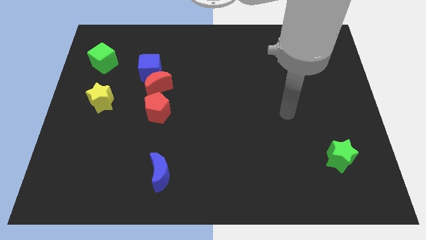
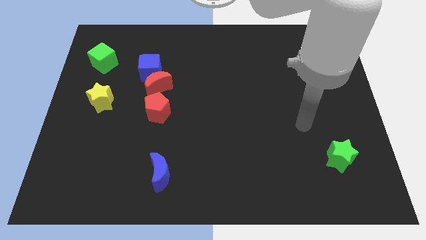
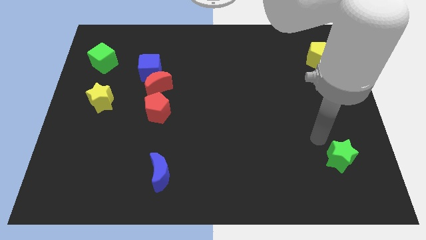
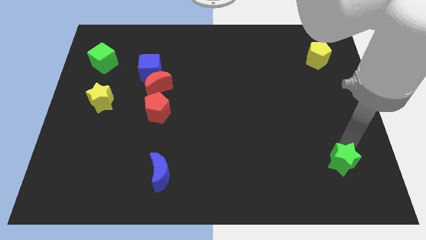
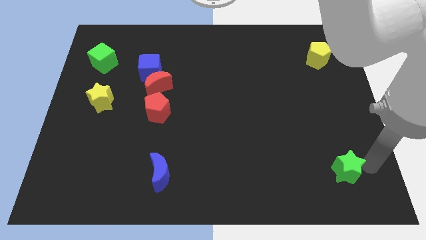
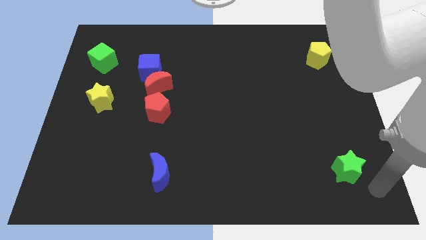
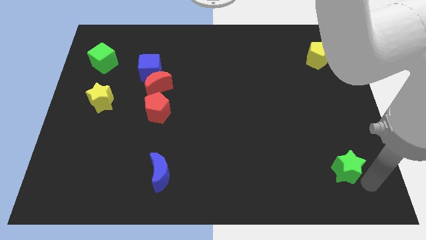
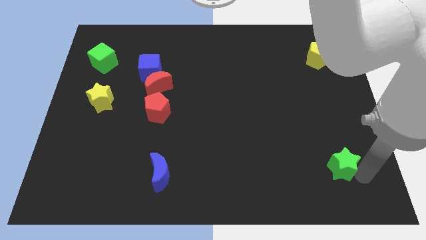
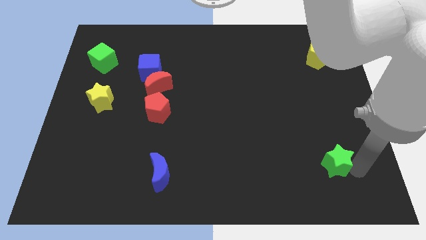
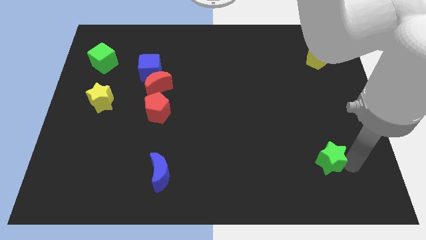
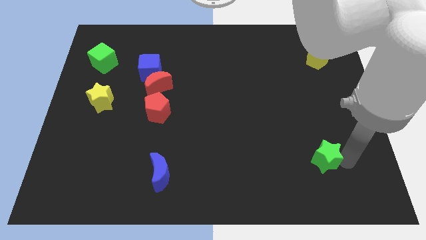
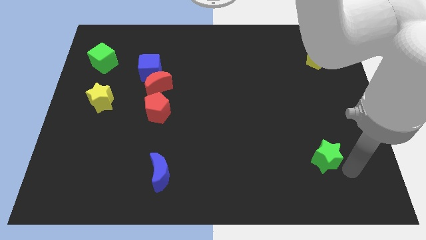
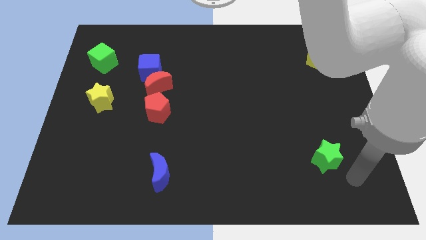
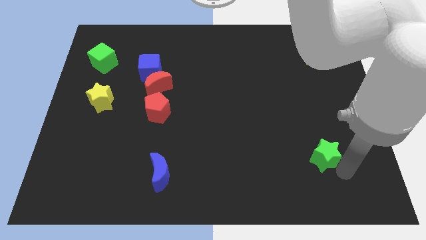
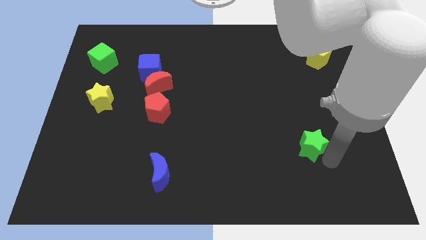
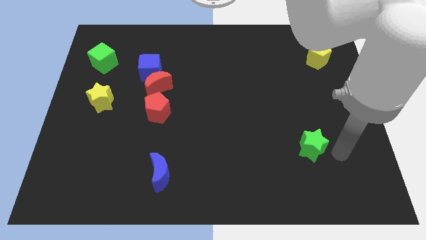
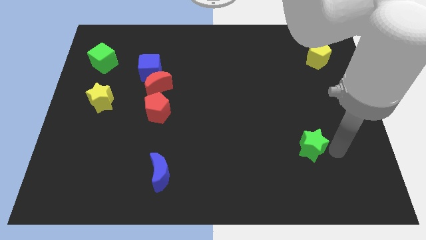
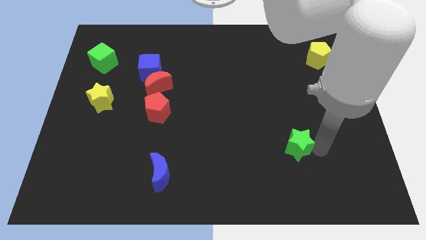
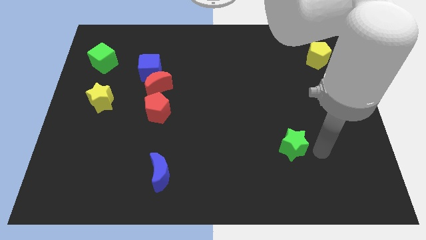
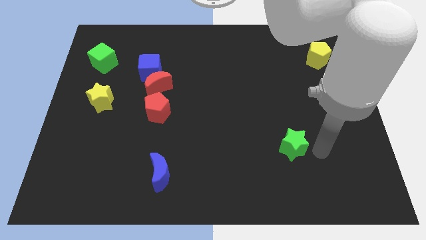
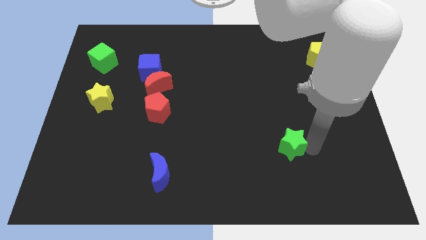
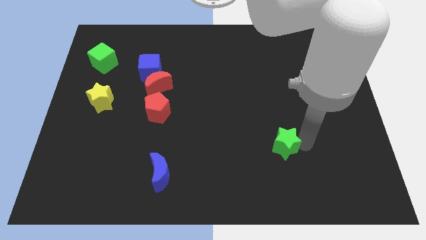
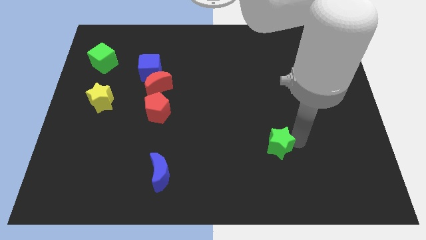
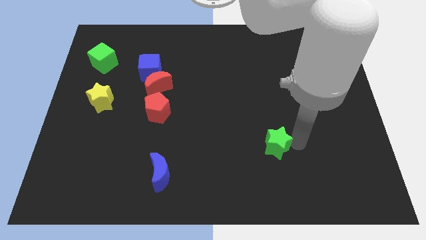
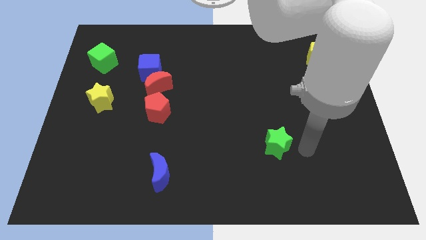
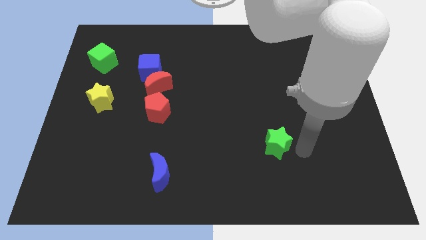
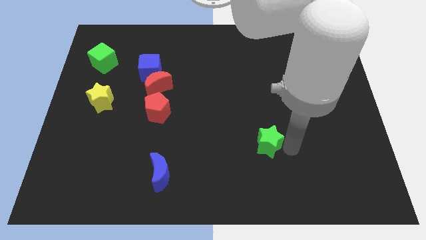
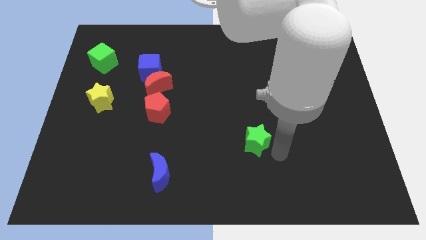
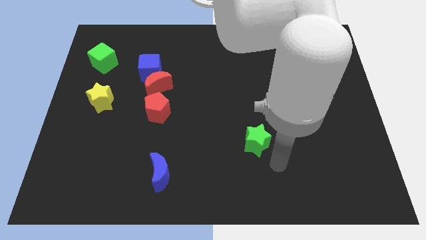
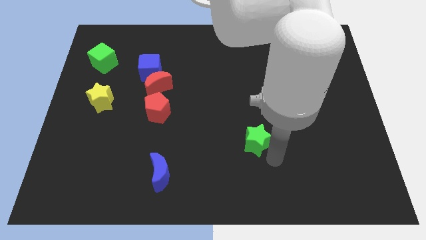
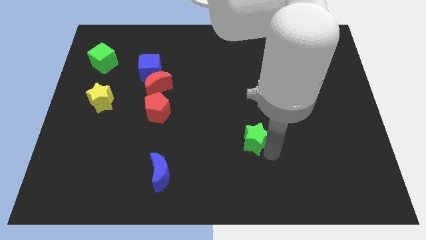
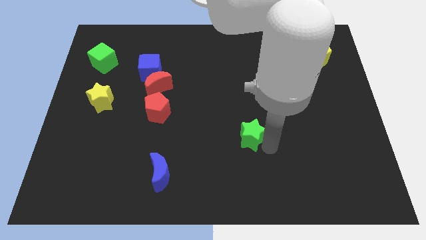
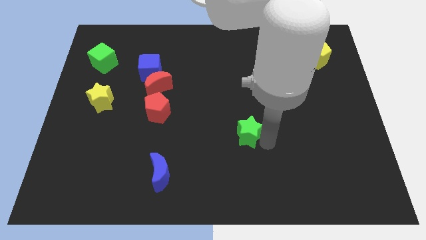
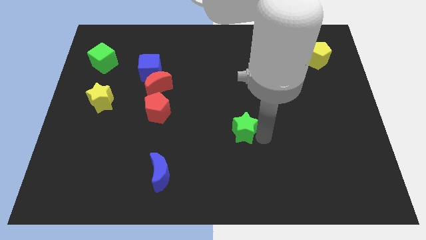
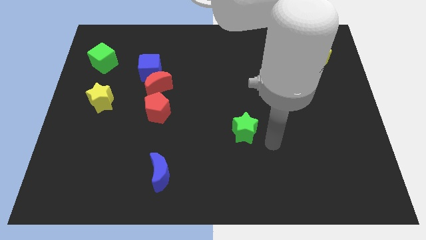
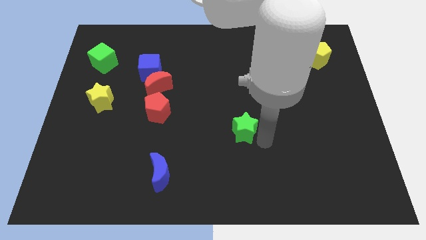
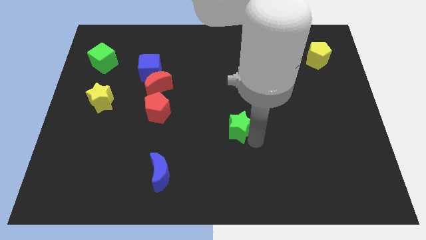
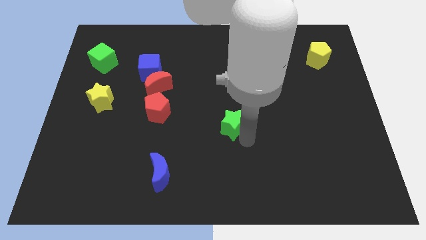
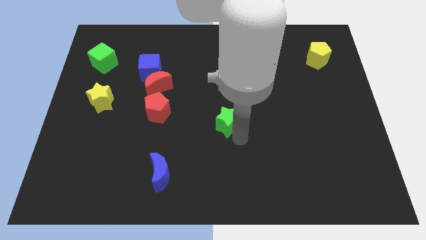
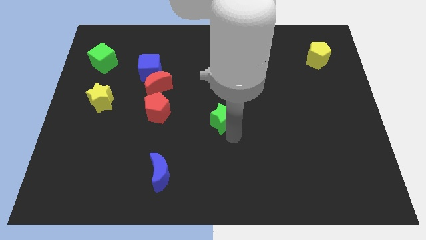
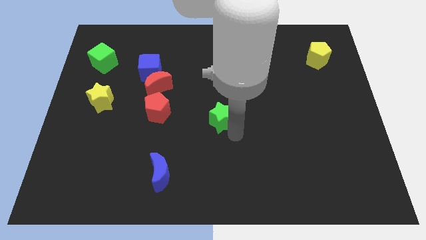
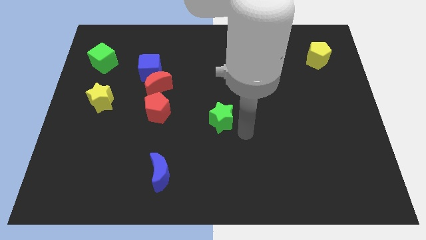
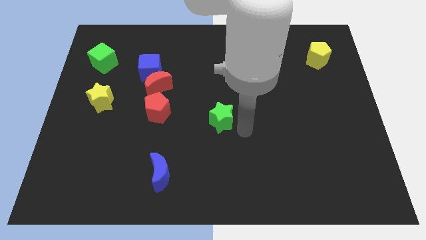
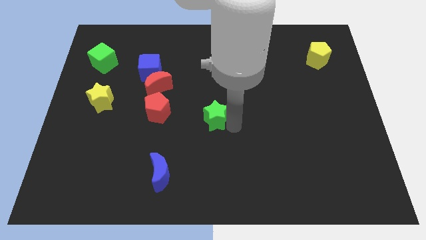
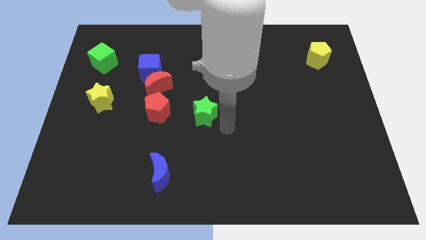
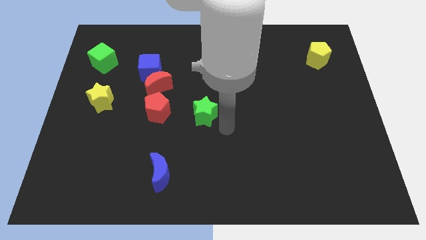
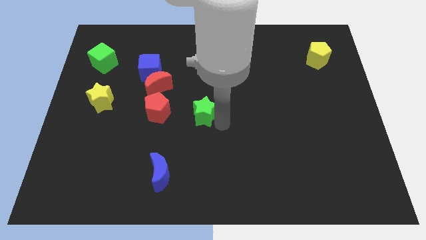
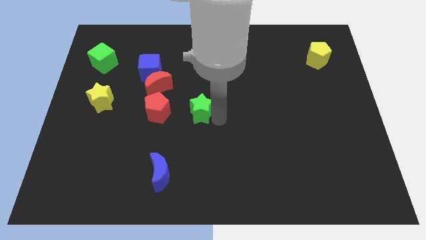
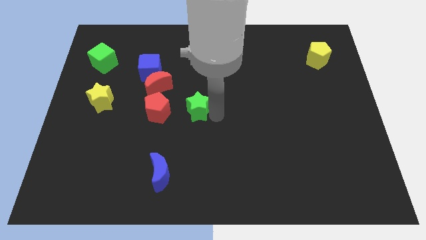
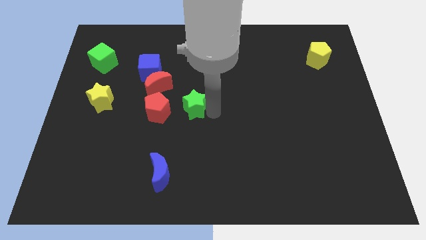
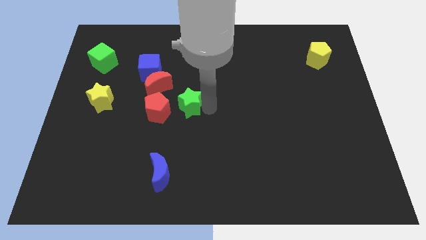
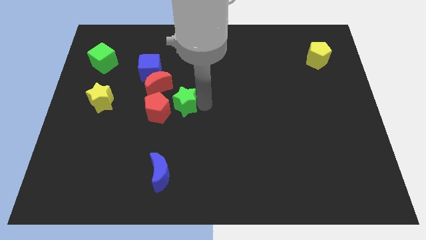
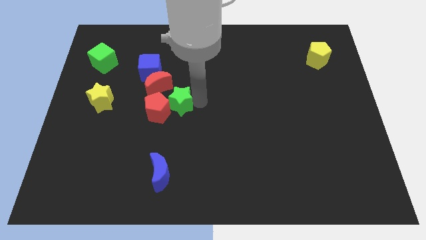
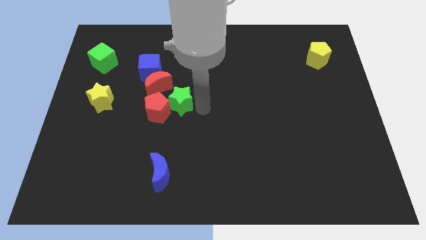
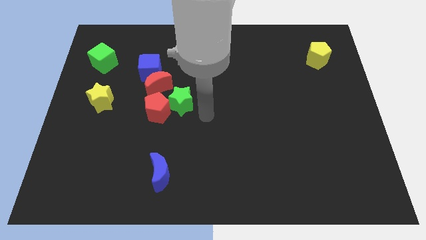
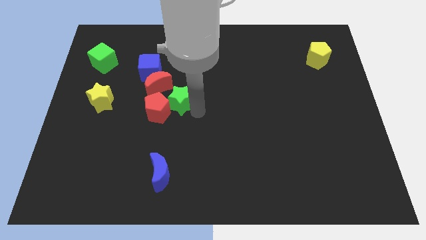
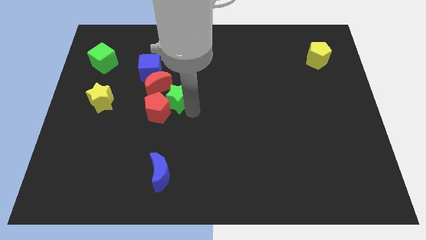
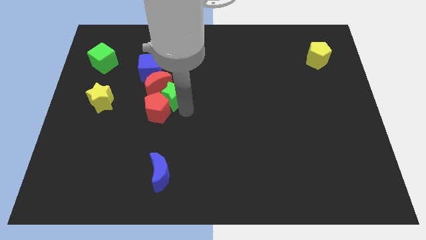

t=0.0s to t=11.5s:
push the green star towards the red moon
